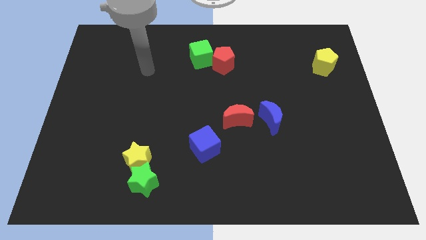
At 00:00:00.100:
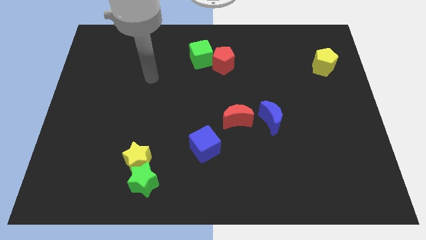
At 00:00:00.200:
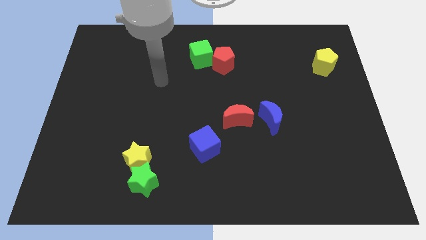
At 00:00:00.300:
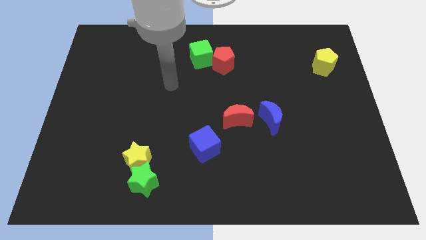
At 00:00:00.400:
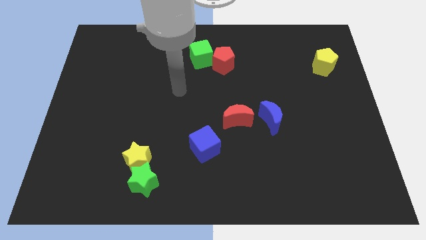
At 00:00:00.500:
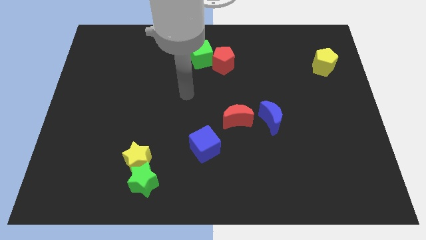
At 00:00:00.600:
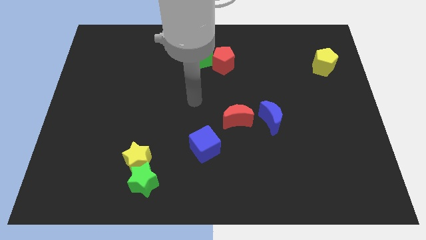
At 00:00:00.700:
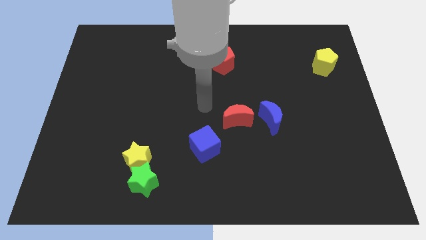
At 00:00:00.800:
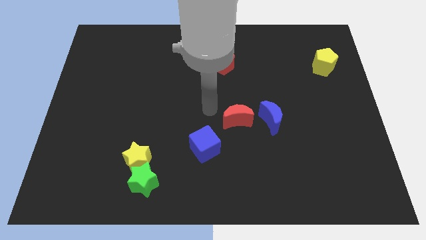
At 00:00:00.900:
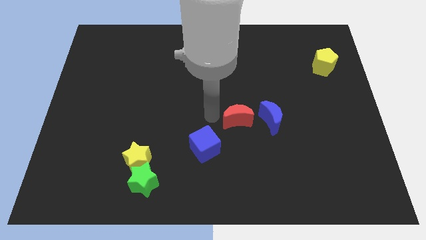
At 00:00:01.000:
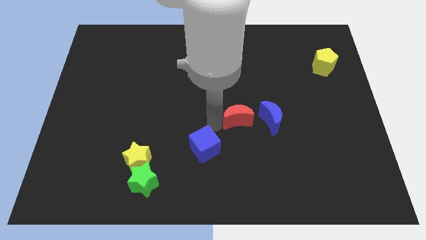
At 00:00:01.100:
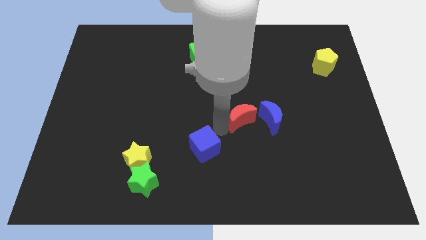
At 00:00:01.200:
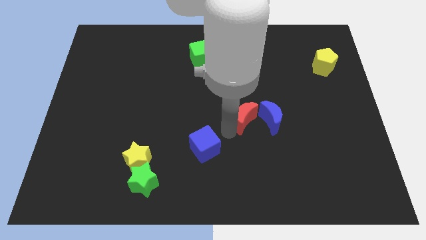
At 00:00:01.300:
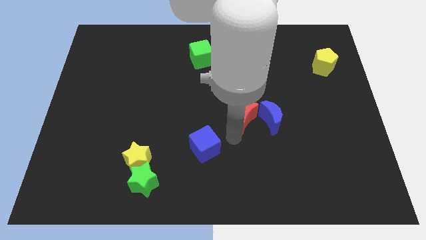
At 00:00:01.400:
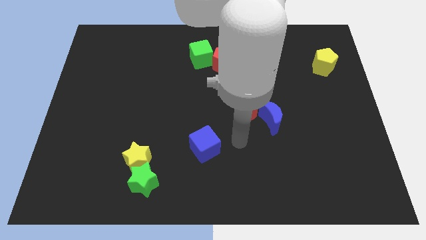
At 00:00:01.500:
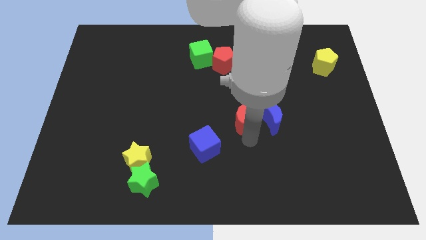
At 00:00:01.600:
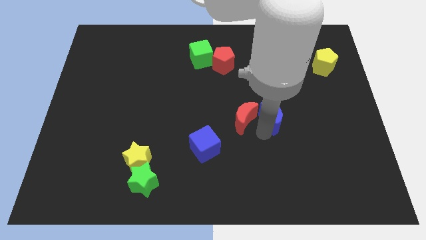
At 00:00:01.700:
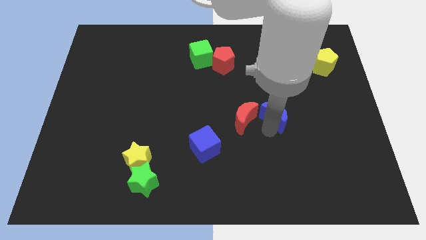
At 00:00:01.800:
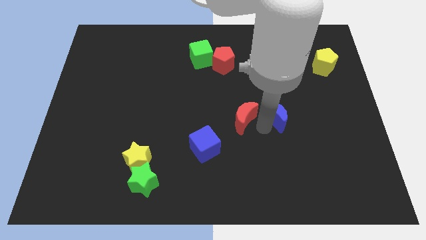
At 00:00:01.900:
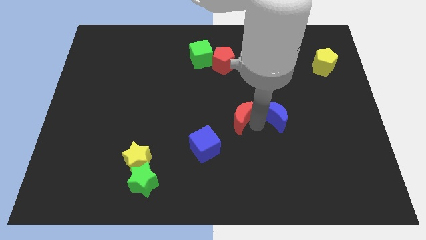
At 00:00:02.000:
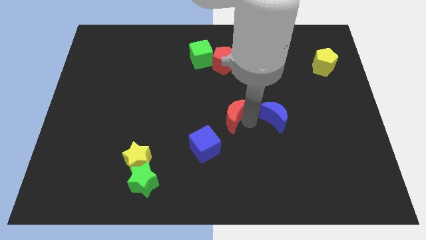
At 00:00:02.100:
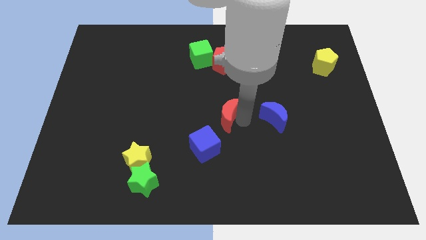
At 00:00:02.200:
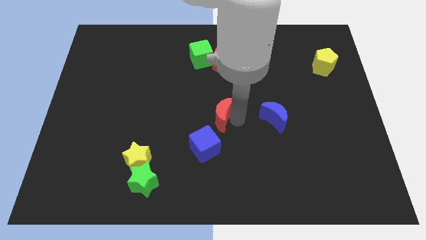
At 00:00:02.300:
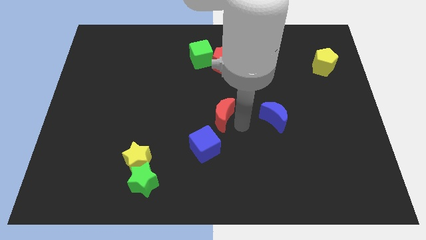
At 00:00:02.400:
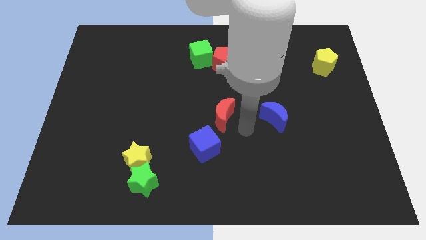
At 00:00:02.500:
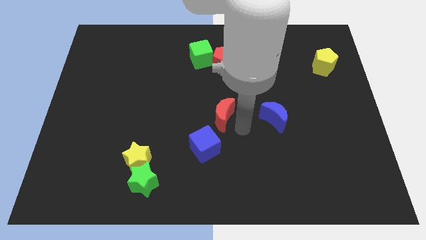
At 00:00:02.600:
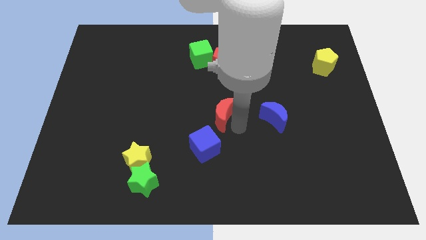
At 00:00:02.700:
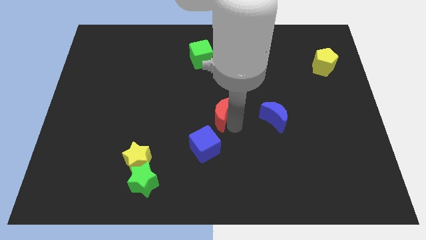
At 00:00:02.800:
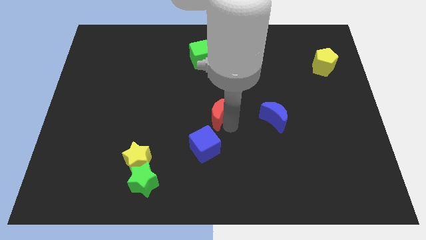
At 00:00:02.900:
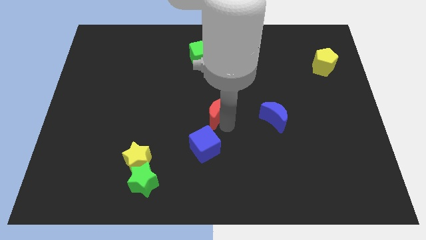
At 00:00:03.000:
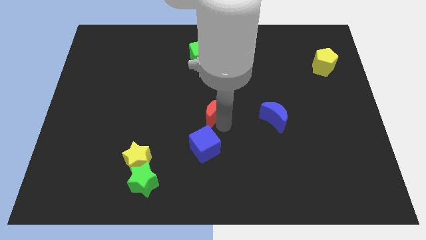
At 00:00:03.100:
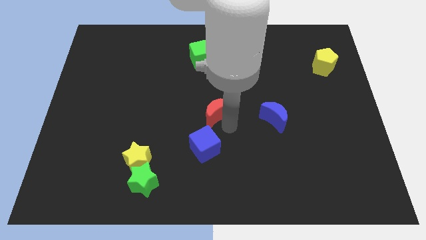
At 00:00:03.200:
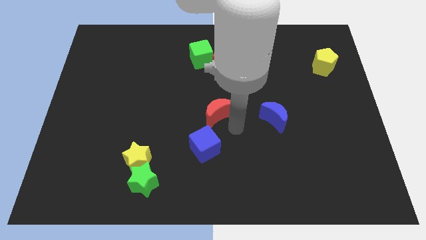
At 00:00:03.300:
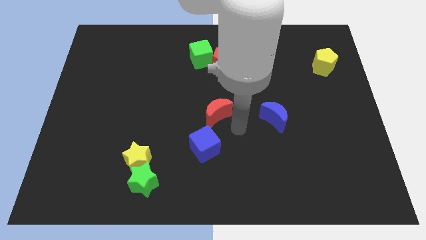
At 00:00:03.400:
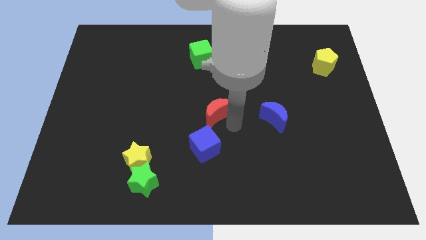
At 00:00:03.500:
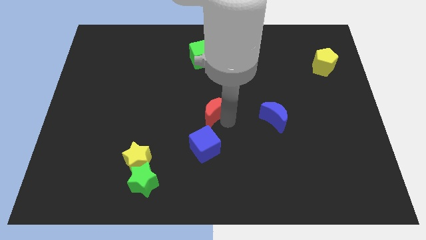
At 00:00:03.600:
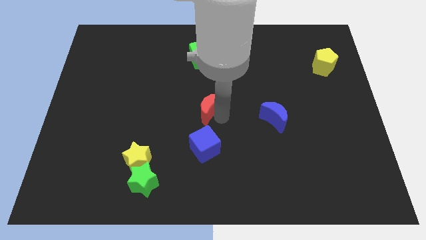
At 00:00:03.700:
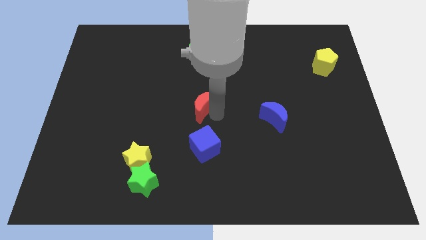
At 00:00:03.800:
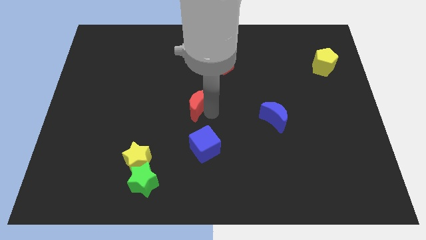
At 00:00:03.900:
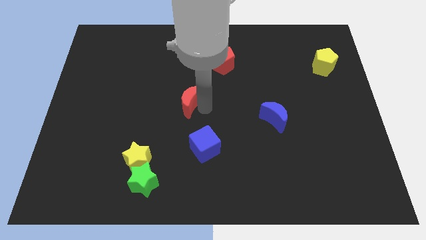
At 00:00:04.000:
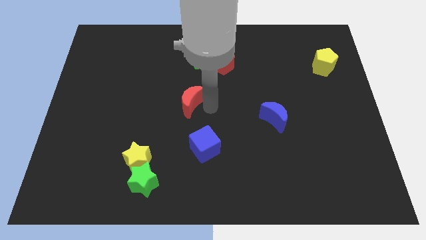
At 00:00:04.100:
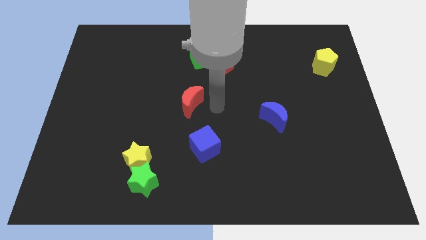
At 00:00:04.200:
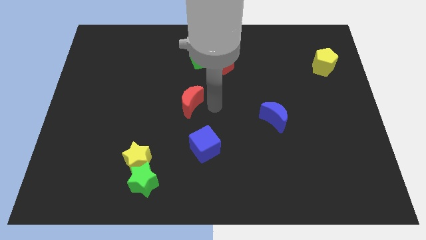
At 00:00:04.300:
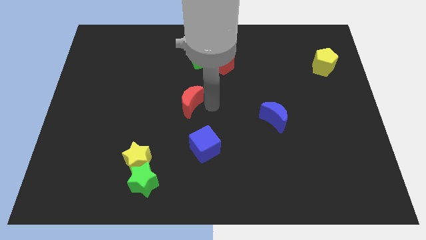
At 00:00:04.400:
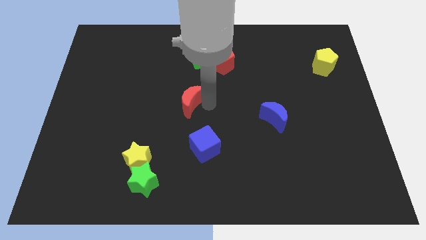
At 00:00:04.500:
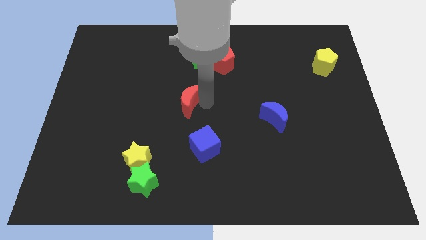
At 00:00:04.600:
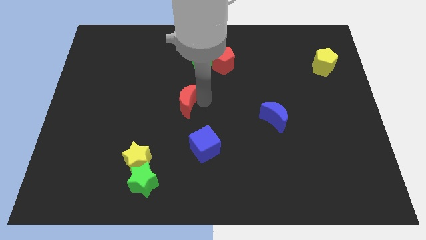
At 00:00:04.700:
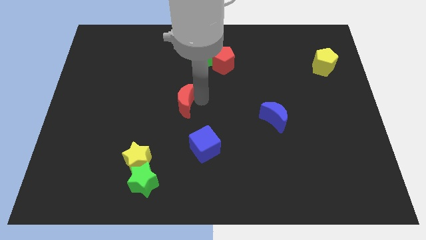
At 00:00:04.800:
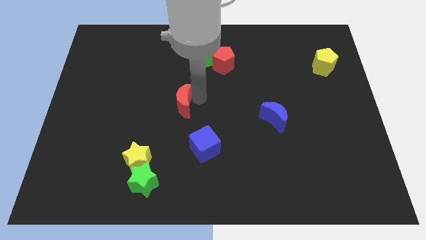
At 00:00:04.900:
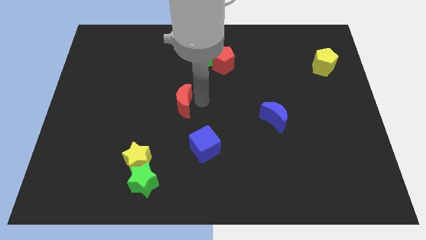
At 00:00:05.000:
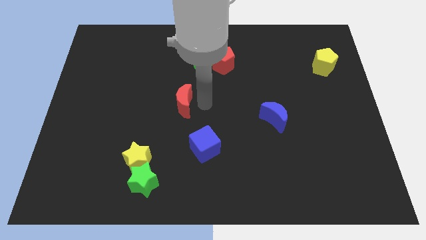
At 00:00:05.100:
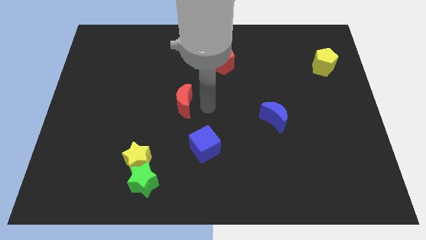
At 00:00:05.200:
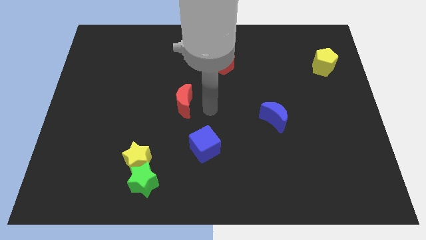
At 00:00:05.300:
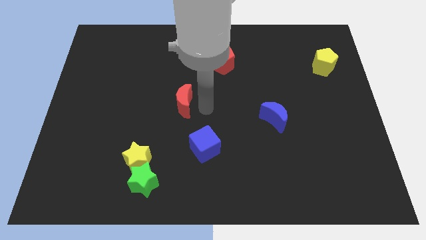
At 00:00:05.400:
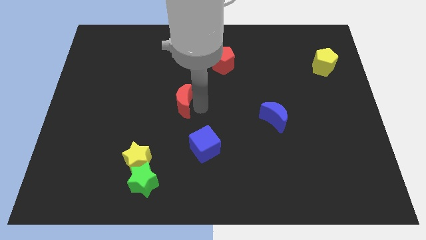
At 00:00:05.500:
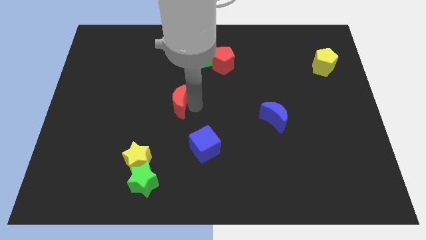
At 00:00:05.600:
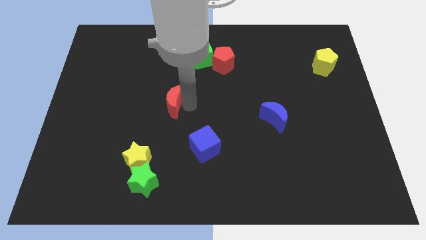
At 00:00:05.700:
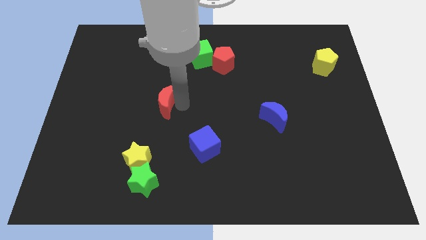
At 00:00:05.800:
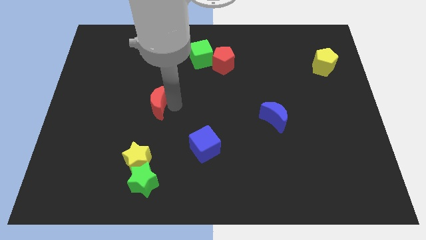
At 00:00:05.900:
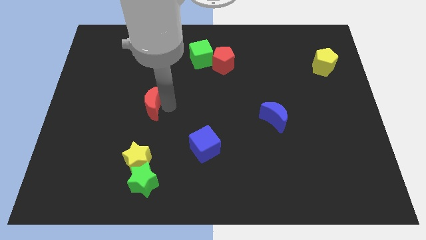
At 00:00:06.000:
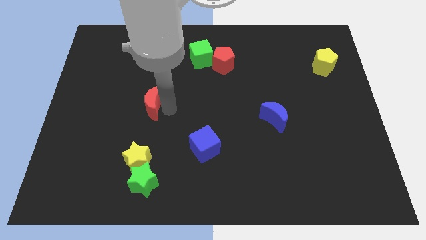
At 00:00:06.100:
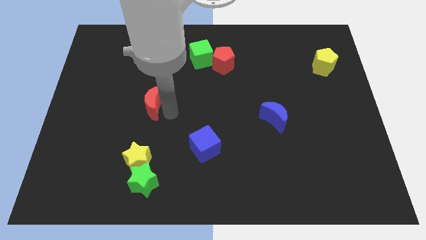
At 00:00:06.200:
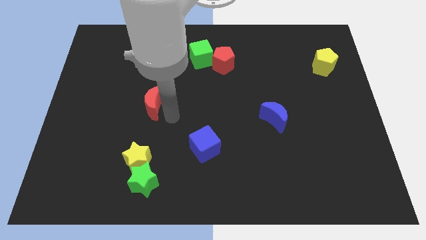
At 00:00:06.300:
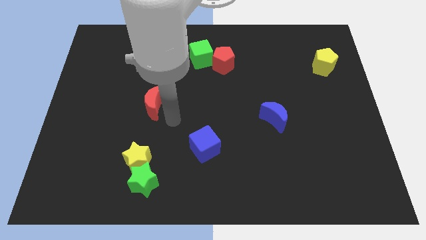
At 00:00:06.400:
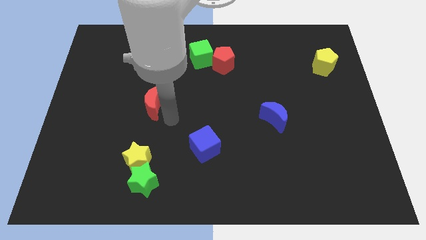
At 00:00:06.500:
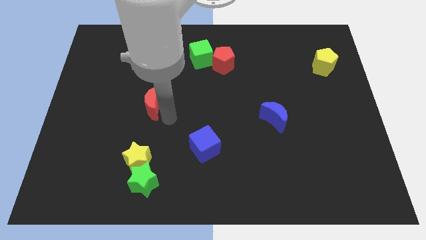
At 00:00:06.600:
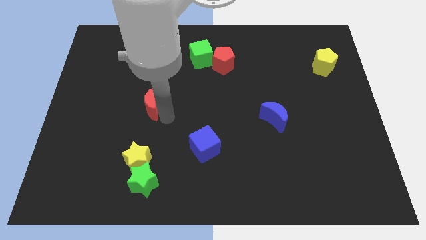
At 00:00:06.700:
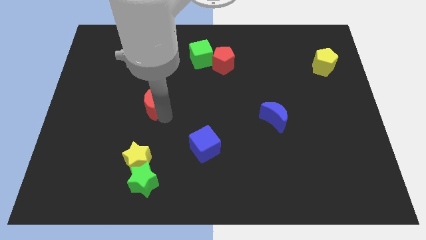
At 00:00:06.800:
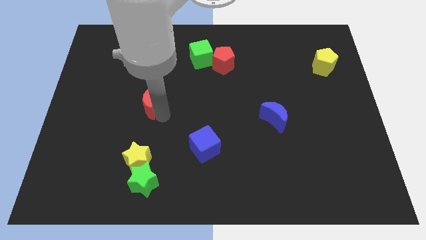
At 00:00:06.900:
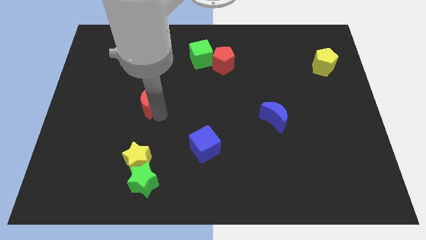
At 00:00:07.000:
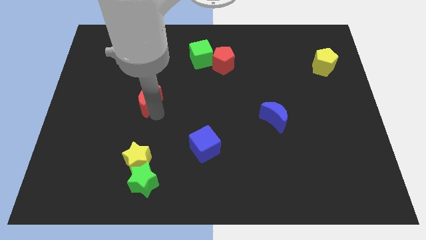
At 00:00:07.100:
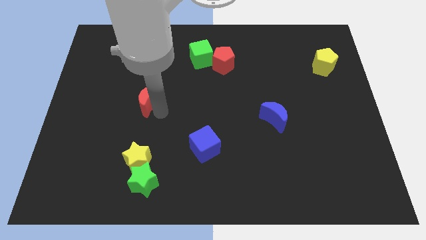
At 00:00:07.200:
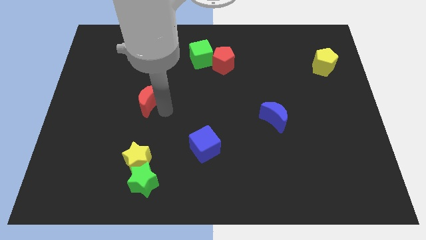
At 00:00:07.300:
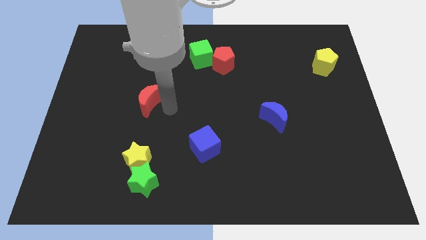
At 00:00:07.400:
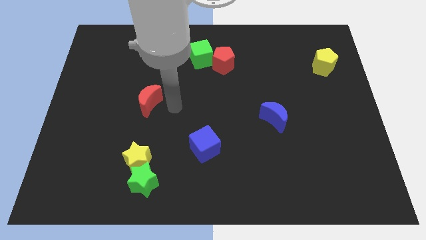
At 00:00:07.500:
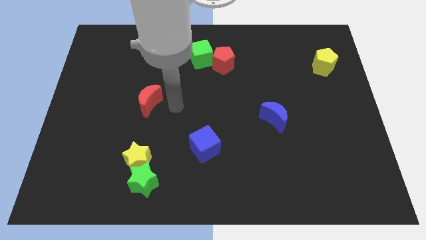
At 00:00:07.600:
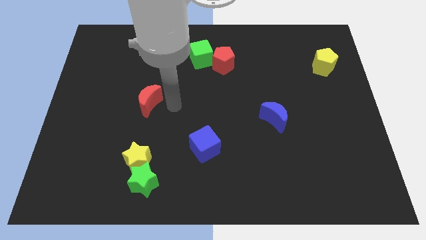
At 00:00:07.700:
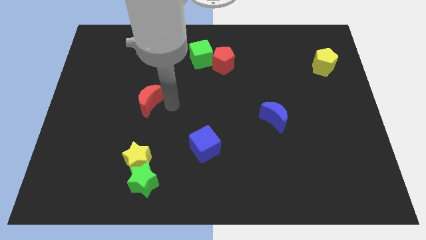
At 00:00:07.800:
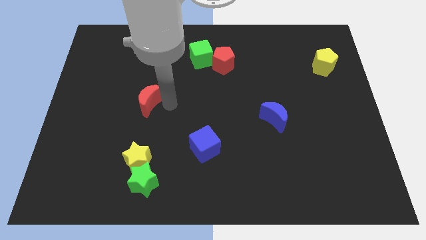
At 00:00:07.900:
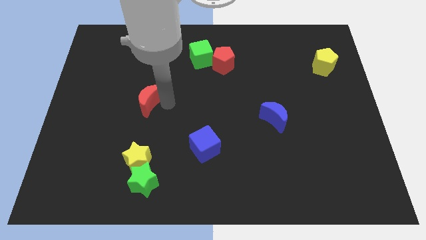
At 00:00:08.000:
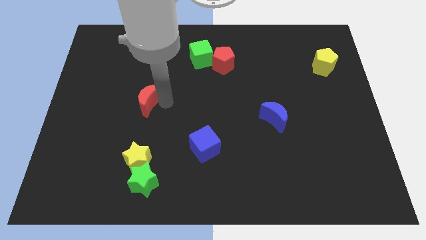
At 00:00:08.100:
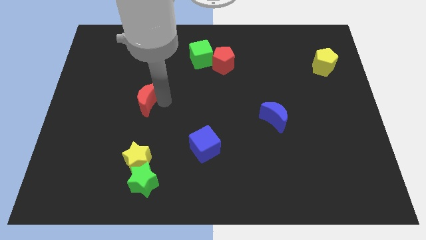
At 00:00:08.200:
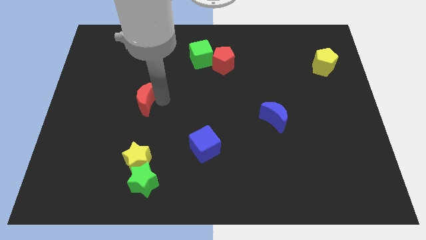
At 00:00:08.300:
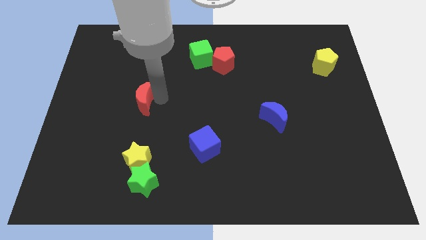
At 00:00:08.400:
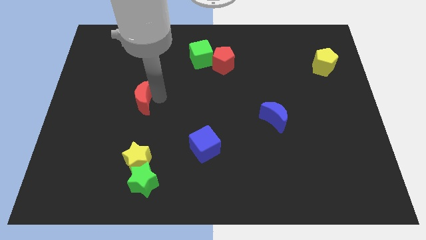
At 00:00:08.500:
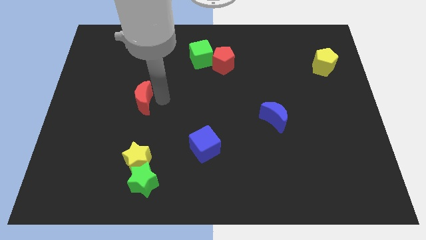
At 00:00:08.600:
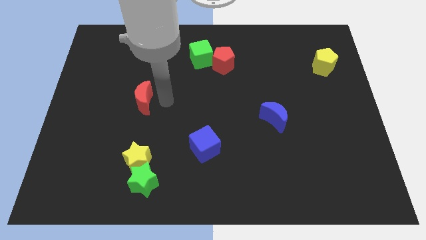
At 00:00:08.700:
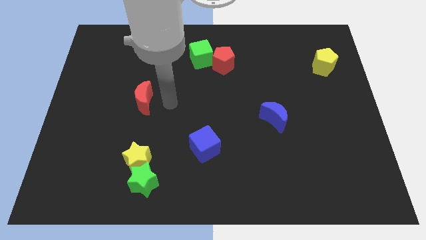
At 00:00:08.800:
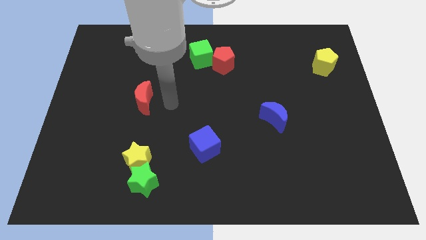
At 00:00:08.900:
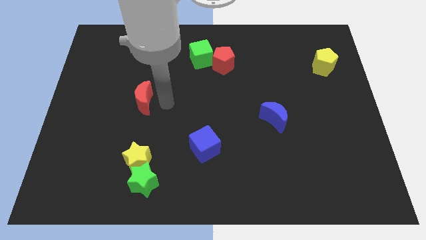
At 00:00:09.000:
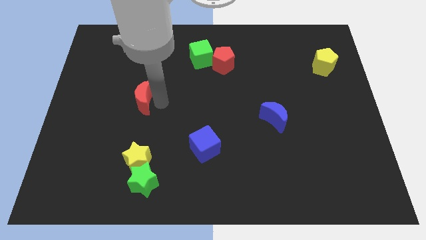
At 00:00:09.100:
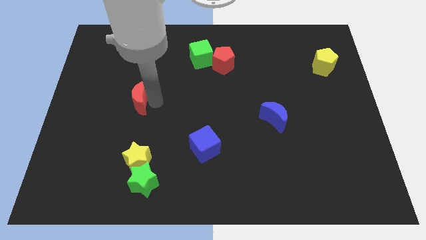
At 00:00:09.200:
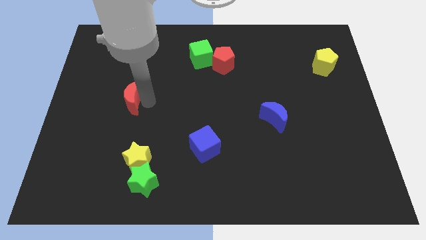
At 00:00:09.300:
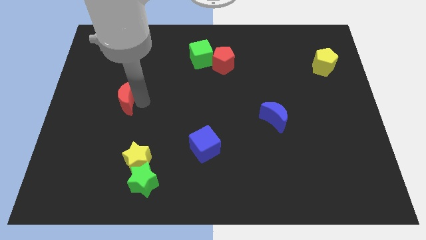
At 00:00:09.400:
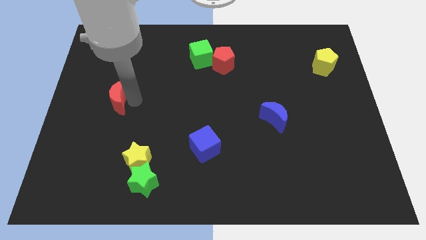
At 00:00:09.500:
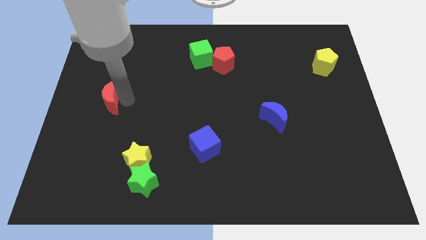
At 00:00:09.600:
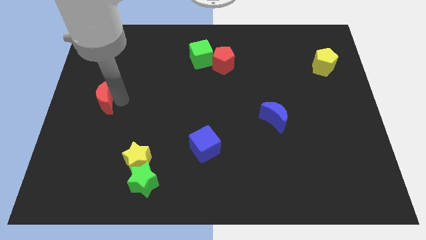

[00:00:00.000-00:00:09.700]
slide the red moon to the left side of the board
